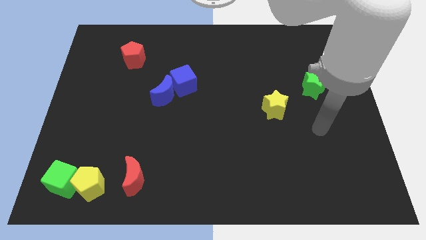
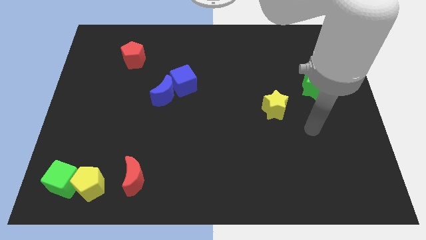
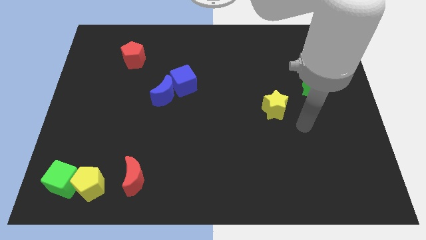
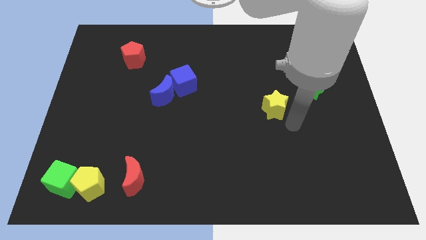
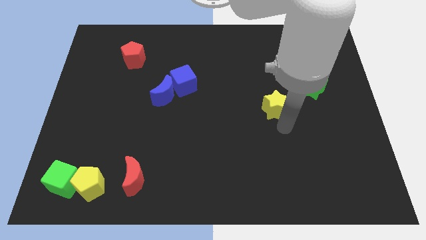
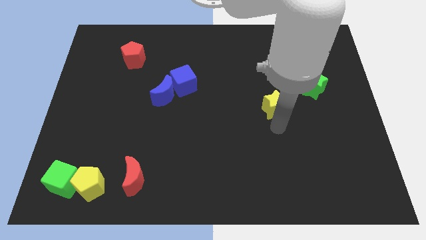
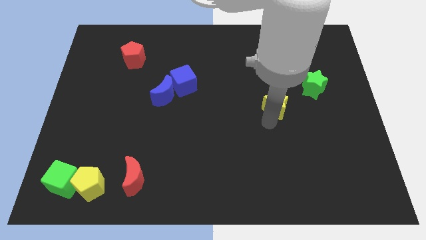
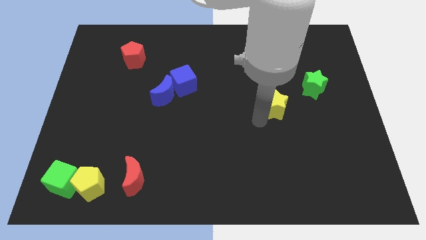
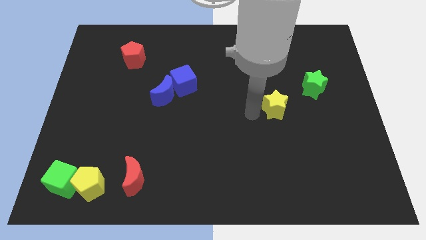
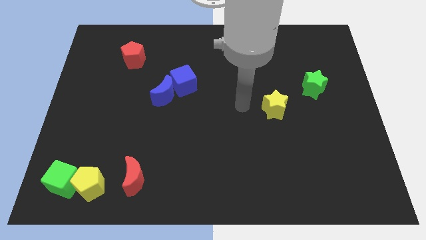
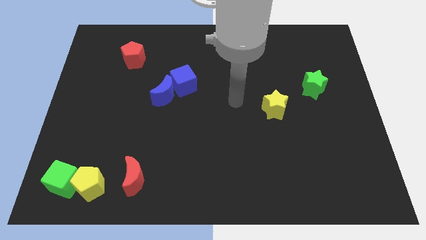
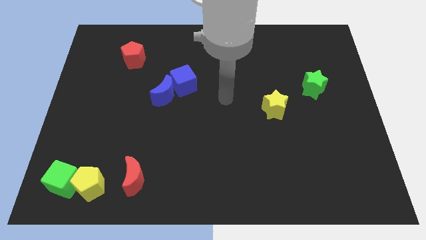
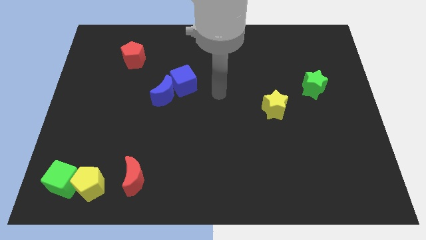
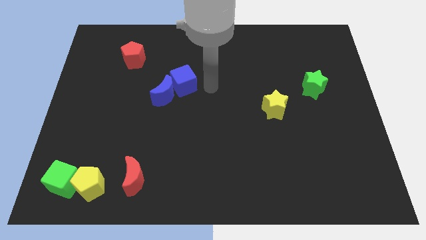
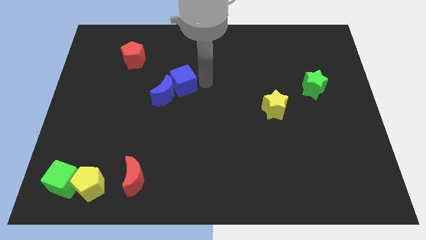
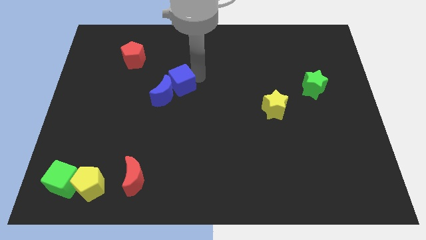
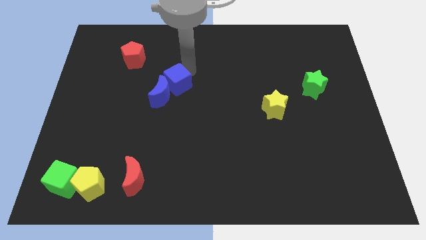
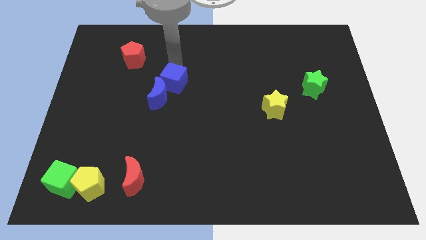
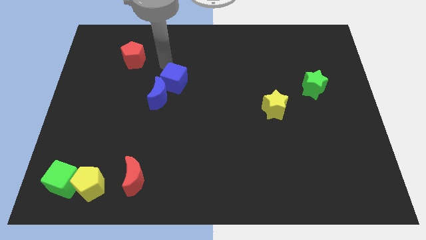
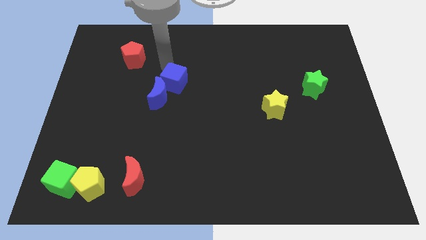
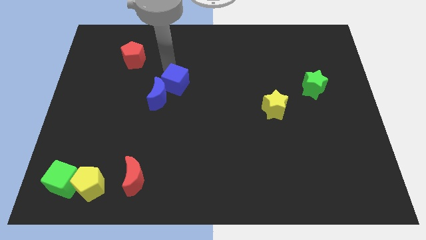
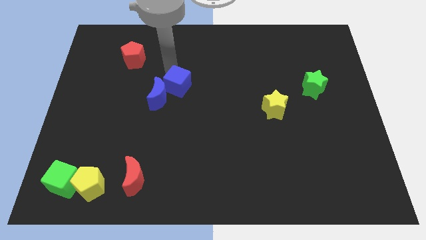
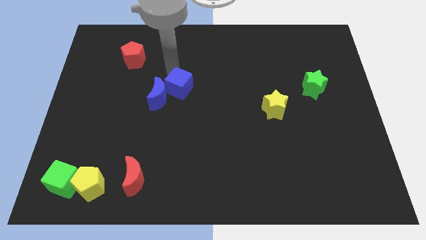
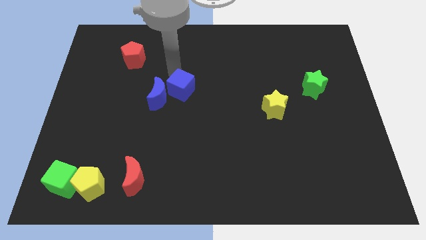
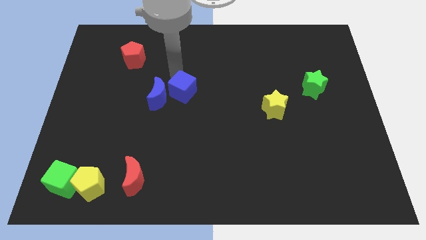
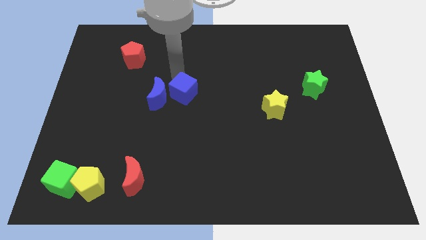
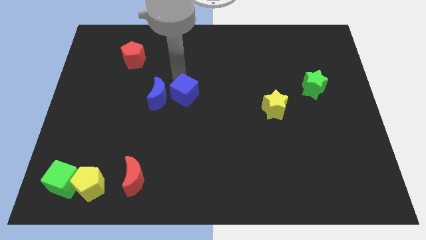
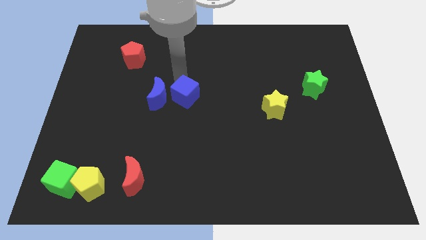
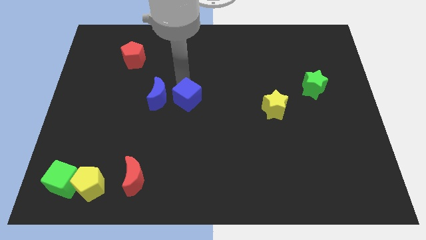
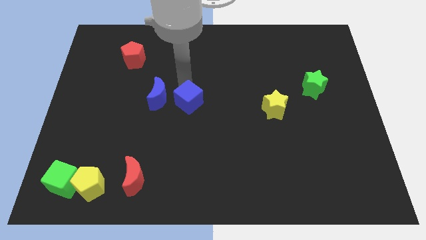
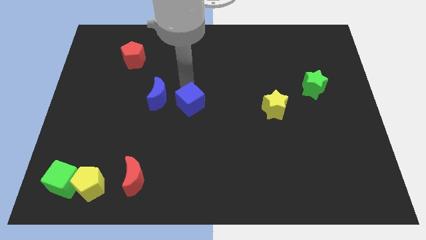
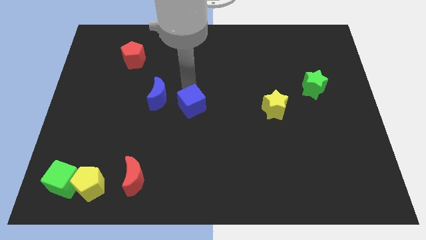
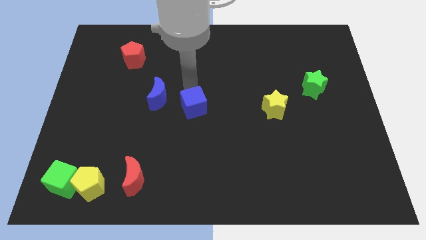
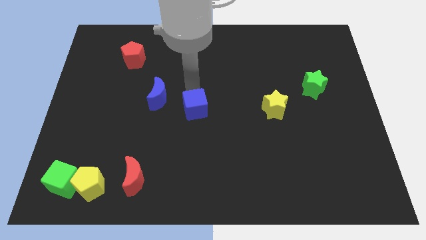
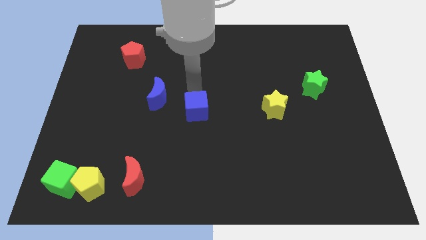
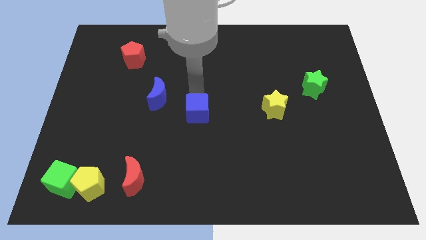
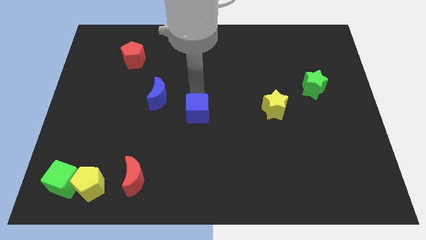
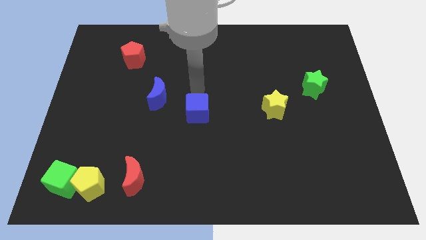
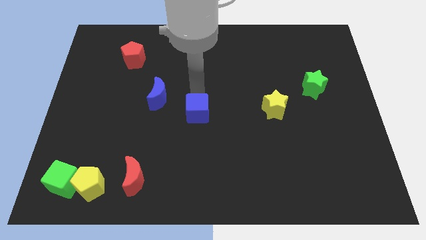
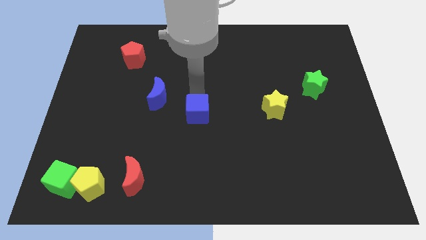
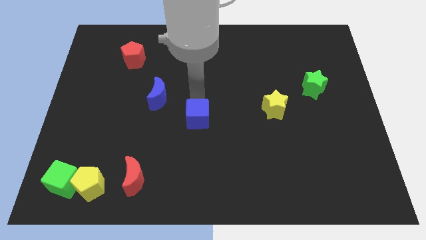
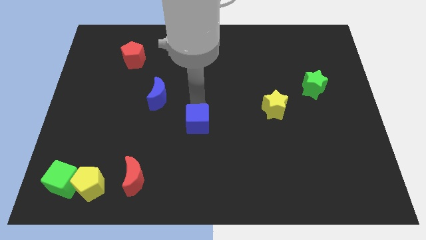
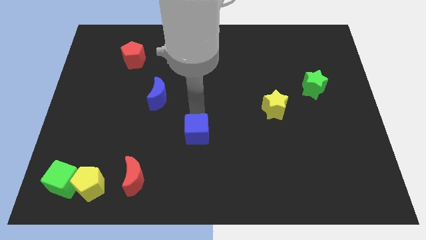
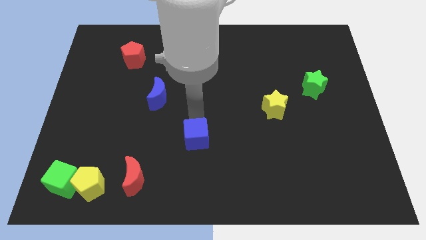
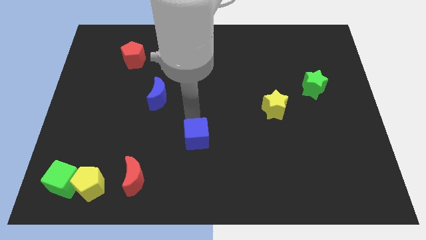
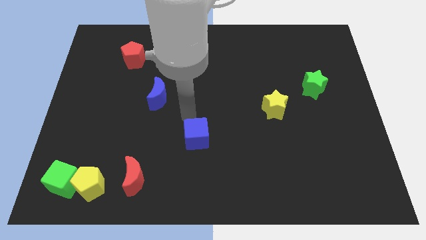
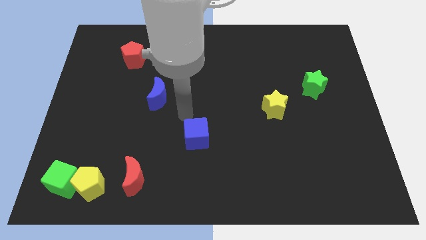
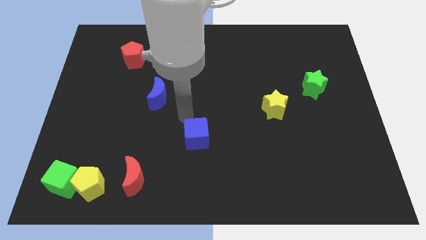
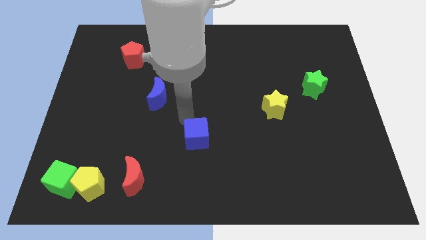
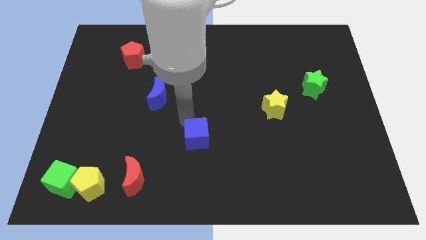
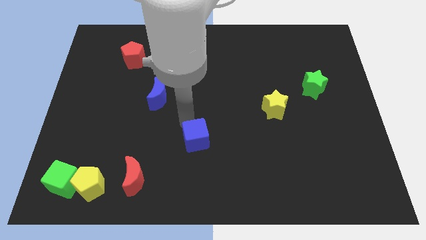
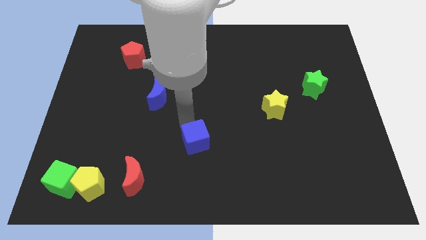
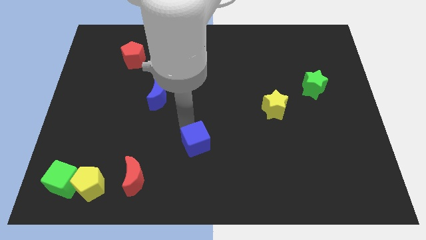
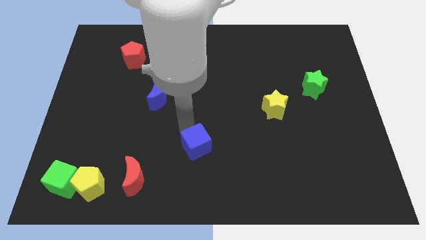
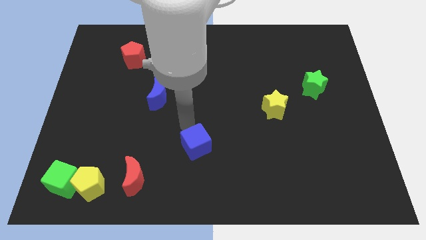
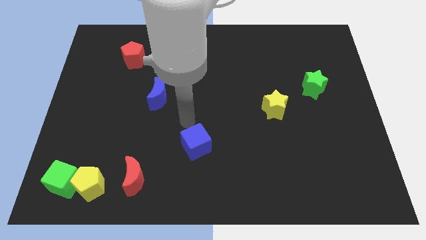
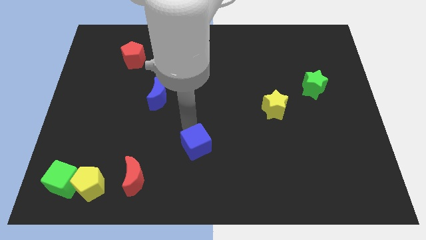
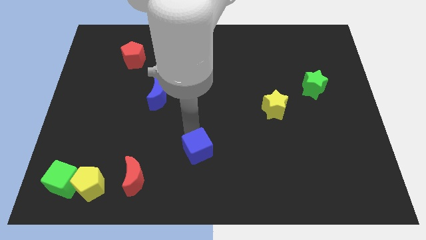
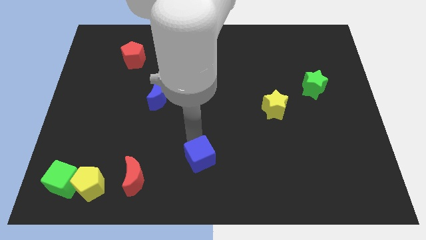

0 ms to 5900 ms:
push the blue cube to the bottom side

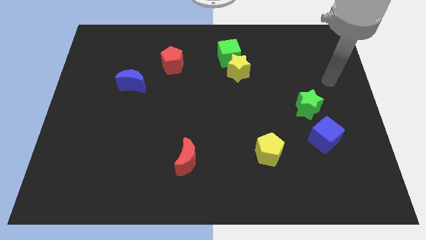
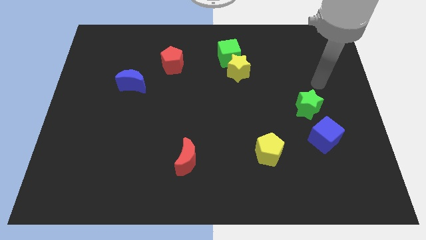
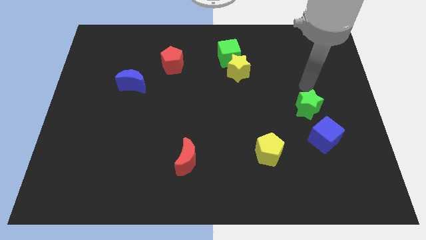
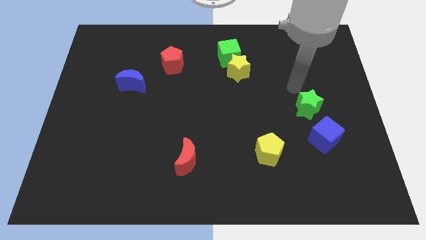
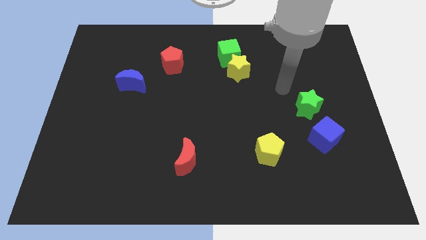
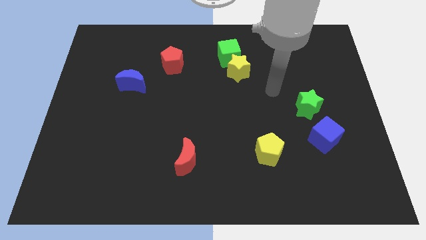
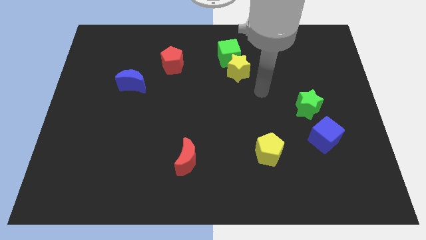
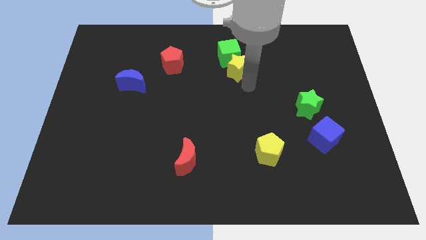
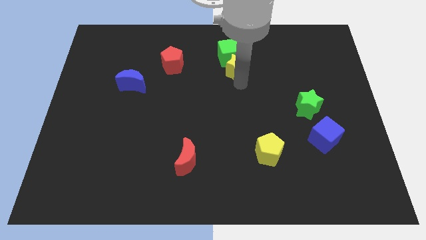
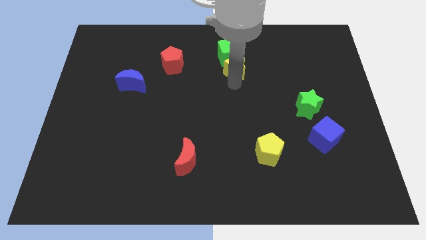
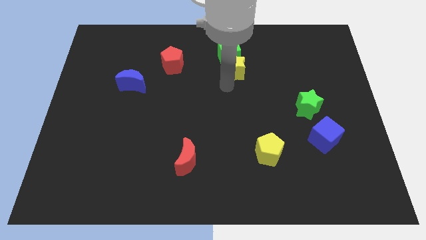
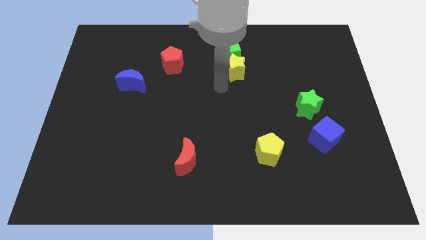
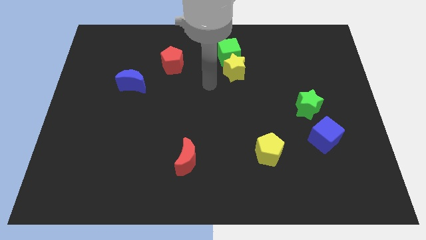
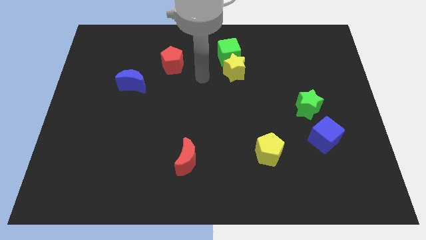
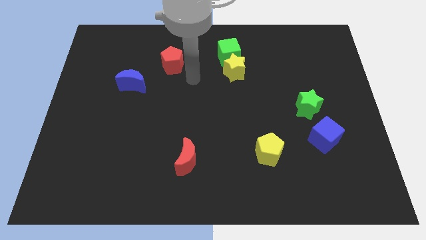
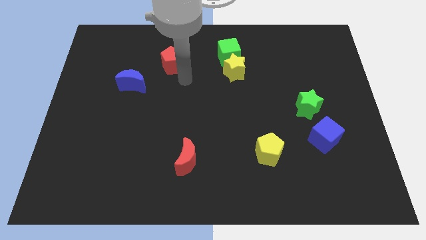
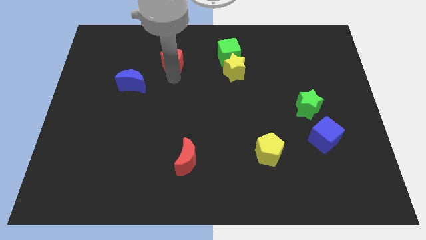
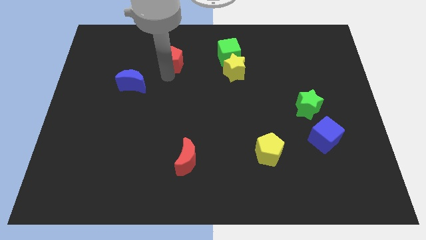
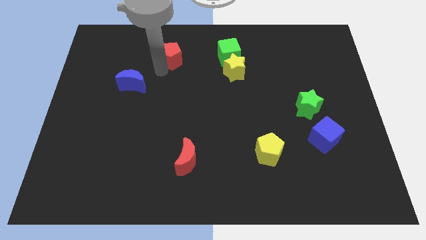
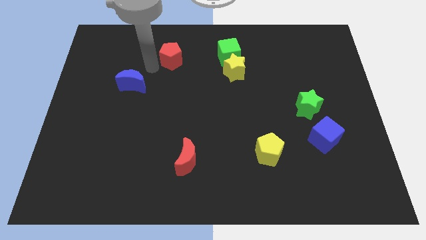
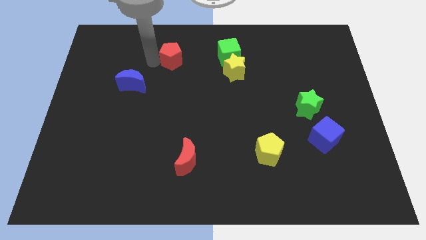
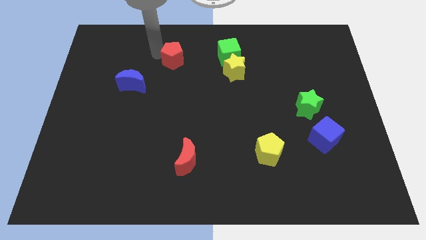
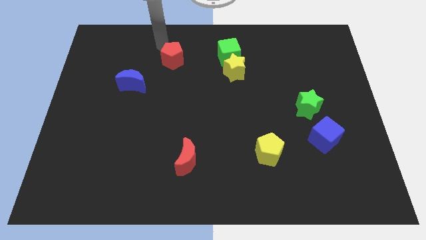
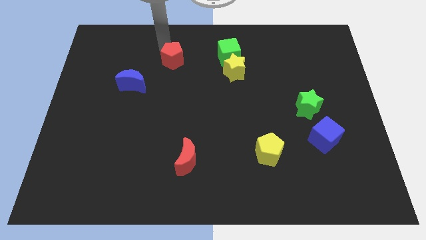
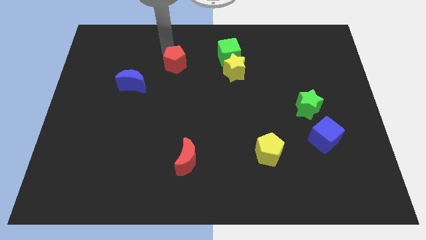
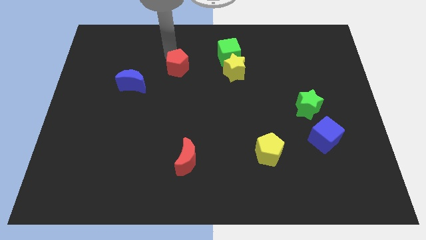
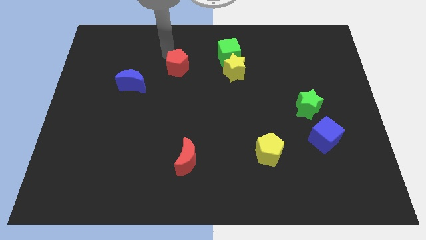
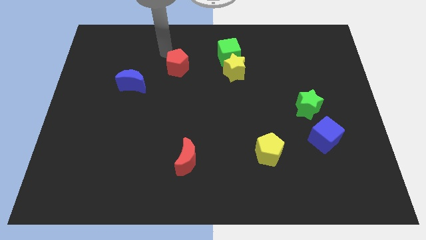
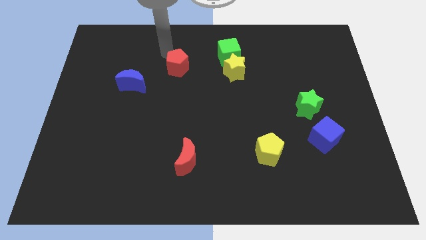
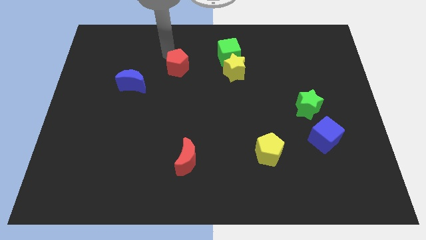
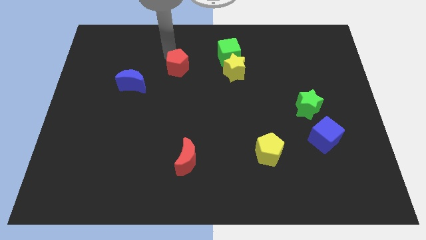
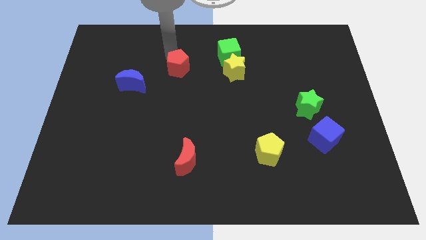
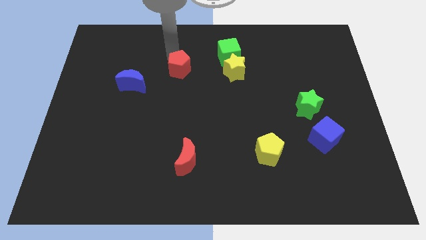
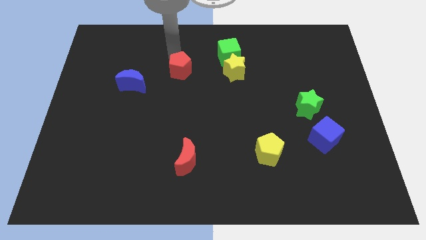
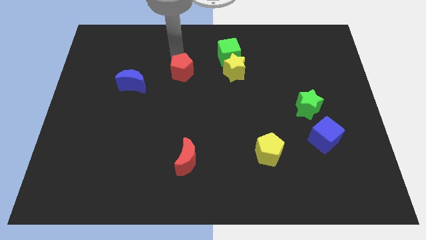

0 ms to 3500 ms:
push the red pentagon to the center
